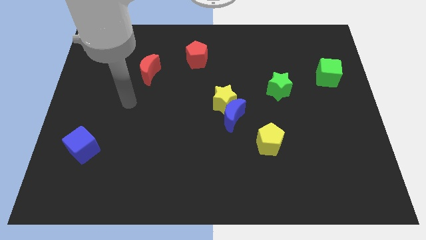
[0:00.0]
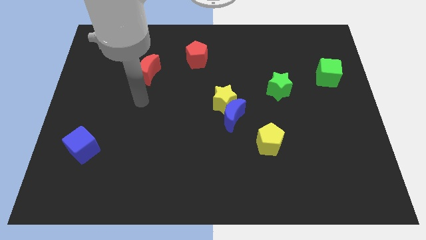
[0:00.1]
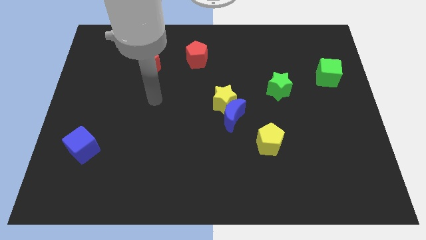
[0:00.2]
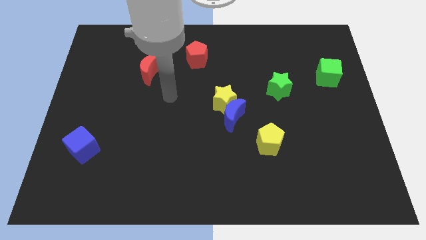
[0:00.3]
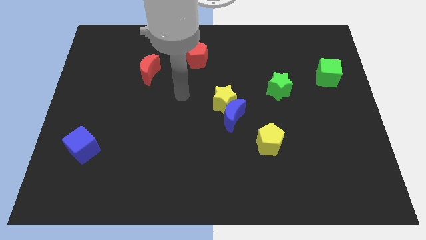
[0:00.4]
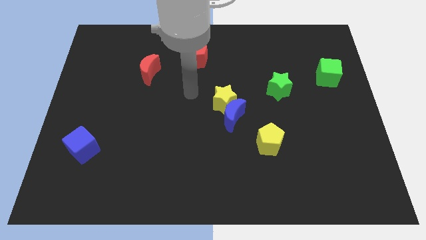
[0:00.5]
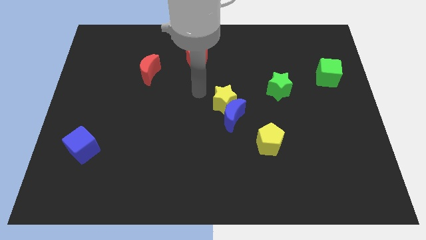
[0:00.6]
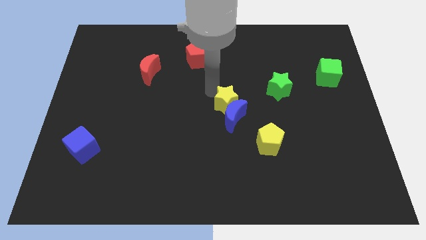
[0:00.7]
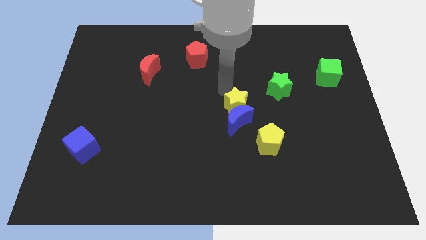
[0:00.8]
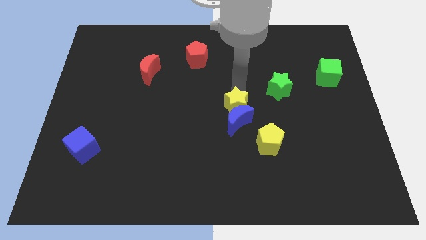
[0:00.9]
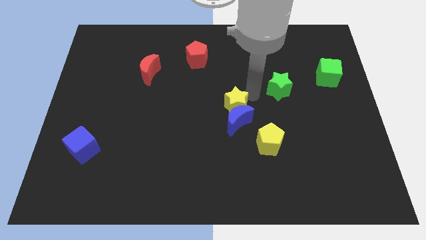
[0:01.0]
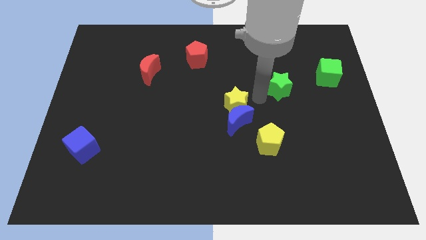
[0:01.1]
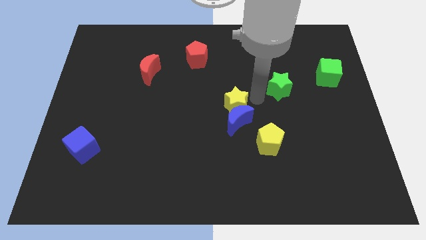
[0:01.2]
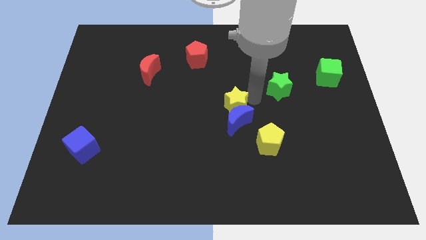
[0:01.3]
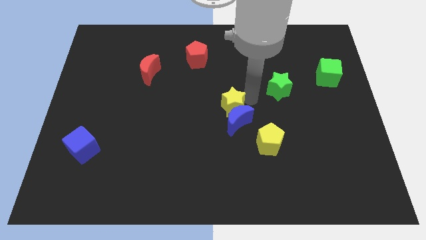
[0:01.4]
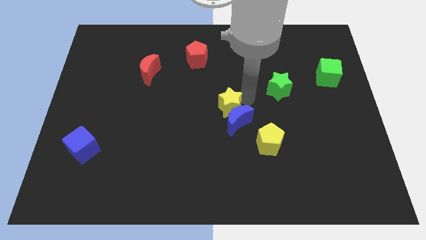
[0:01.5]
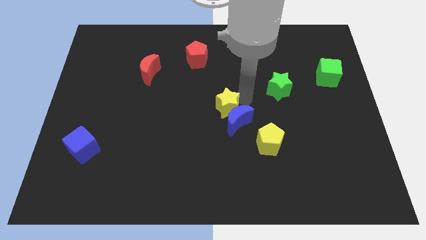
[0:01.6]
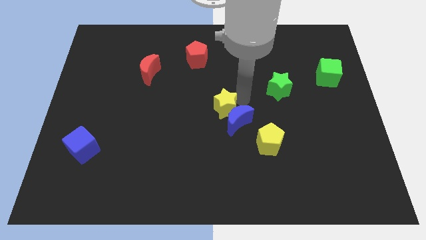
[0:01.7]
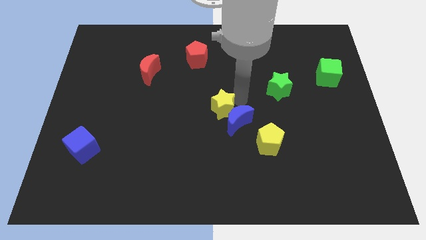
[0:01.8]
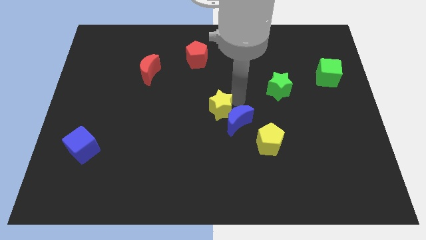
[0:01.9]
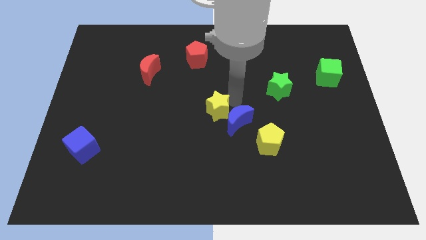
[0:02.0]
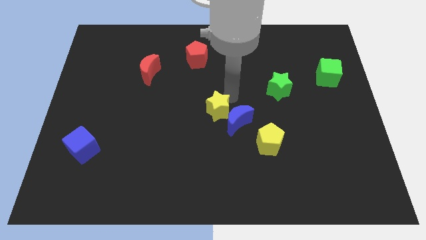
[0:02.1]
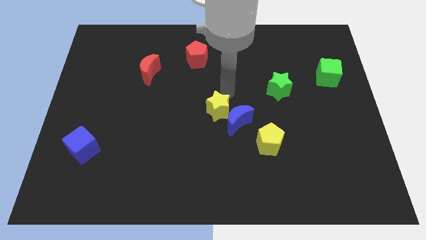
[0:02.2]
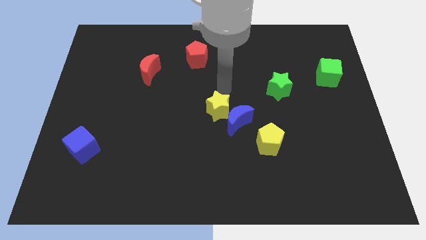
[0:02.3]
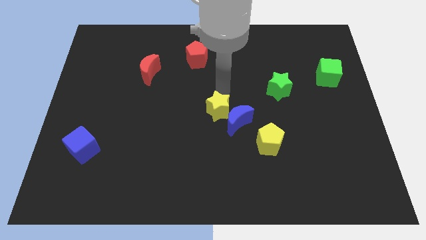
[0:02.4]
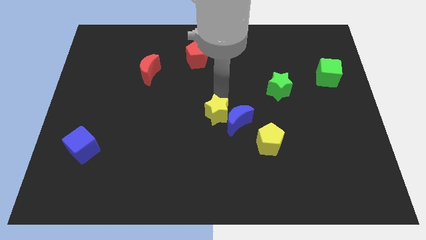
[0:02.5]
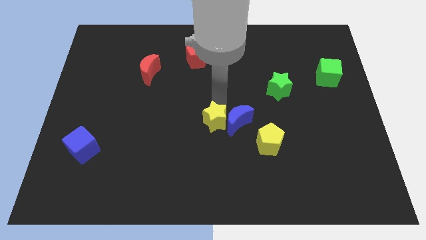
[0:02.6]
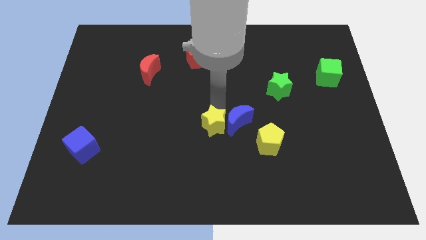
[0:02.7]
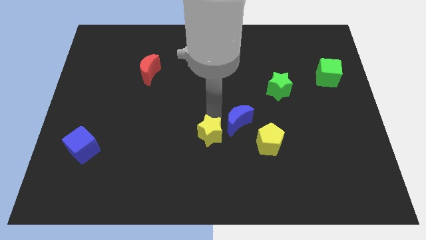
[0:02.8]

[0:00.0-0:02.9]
slightly slide the yellow star down

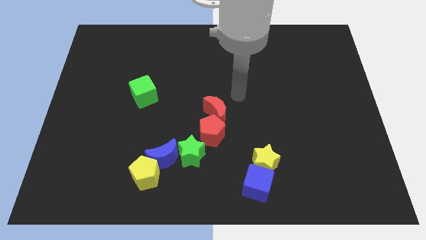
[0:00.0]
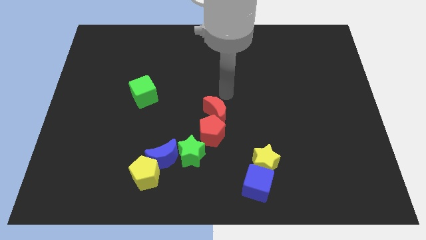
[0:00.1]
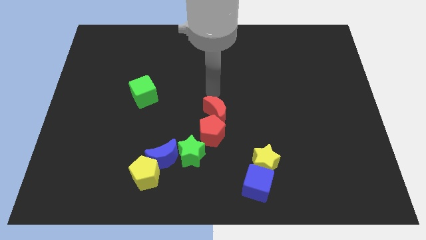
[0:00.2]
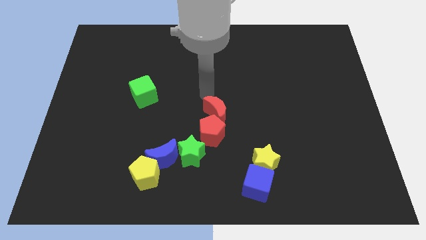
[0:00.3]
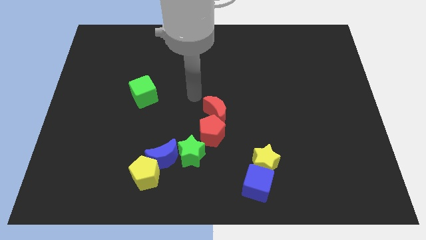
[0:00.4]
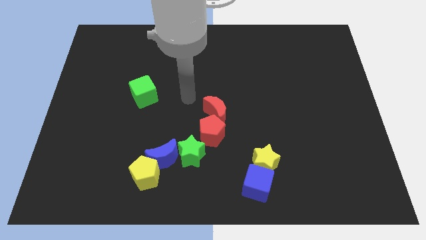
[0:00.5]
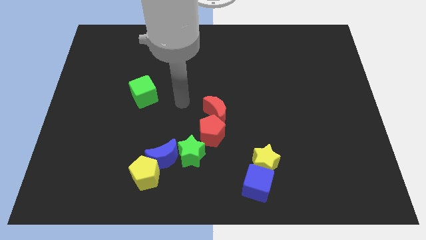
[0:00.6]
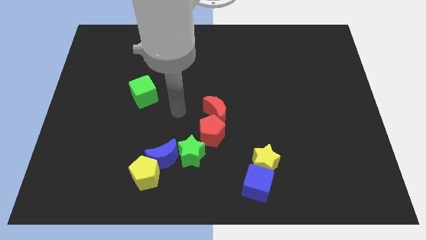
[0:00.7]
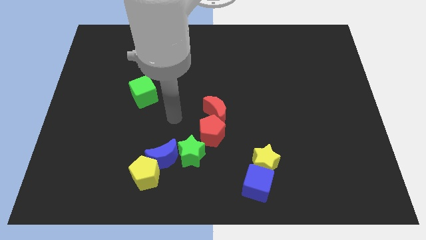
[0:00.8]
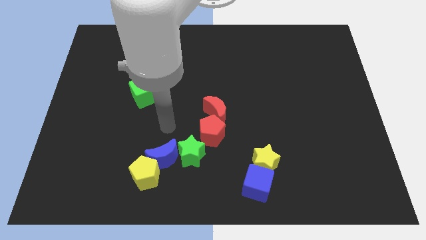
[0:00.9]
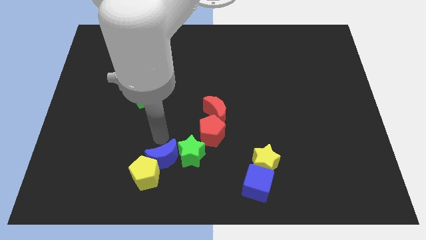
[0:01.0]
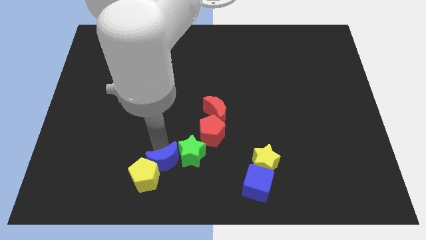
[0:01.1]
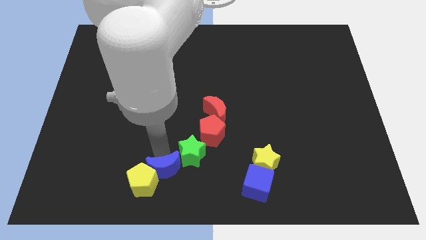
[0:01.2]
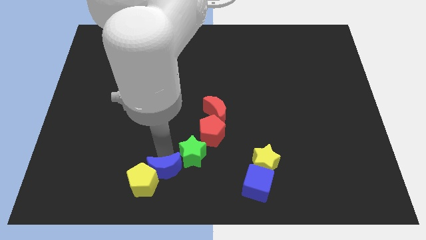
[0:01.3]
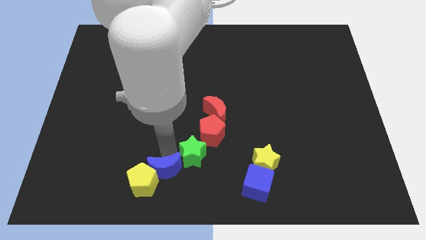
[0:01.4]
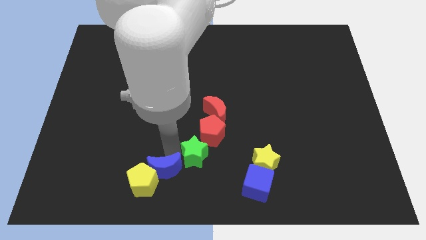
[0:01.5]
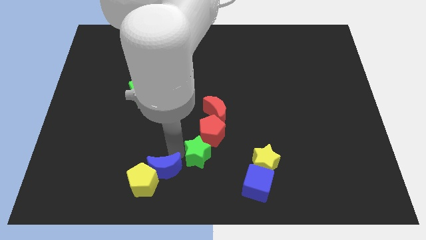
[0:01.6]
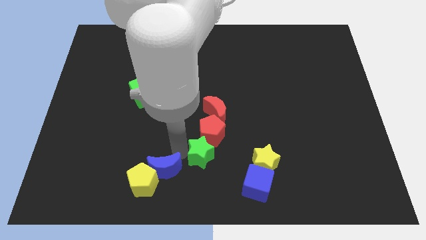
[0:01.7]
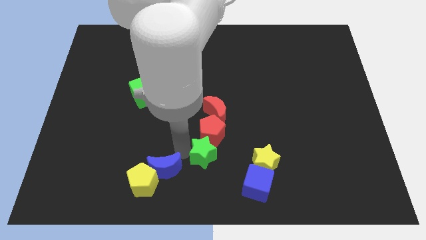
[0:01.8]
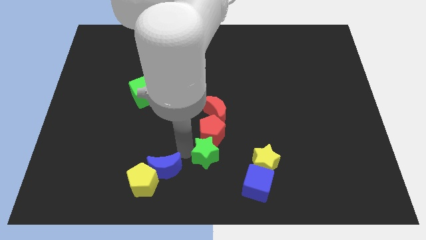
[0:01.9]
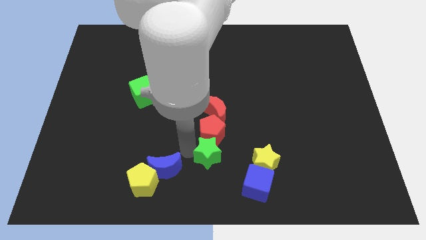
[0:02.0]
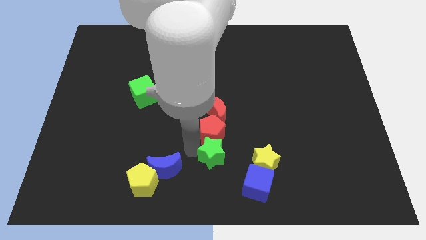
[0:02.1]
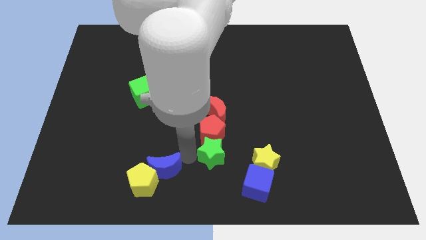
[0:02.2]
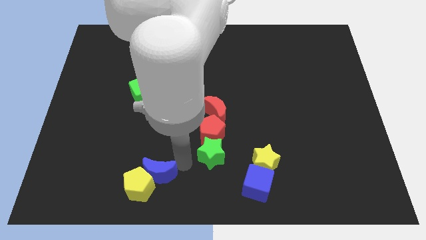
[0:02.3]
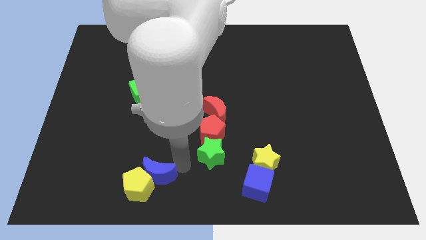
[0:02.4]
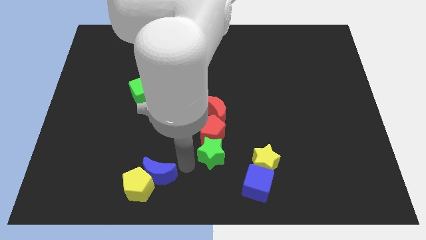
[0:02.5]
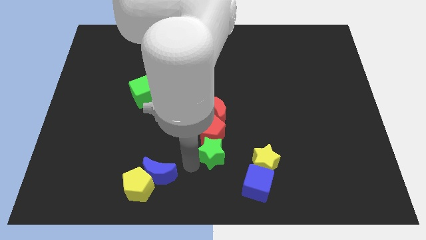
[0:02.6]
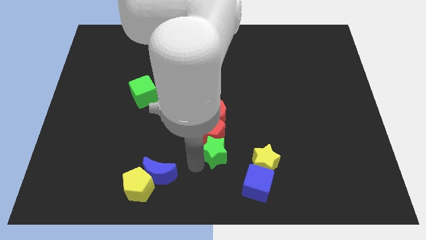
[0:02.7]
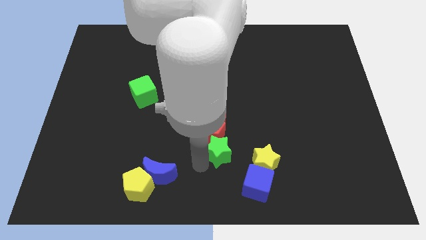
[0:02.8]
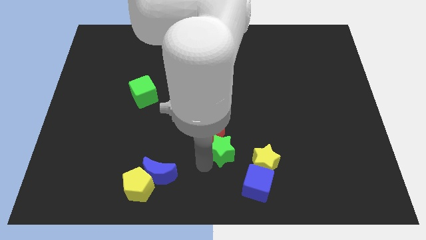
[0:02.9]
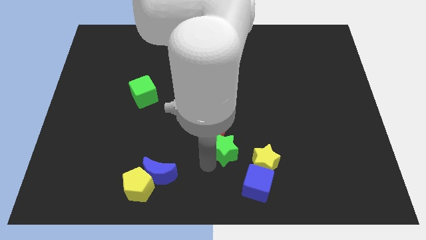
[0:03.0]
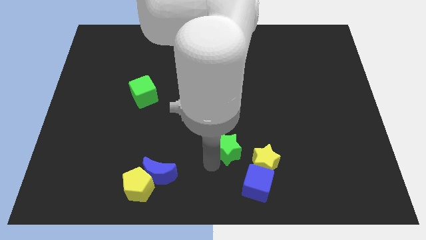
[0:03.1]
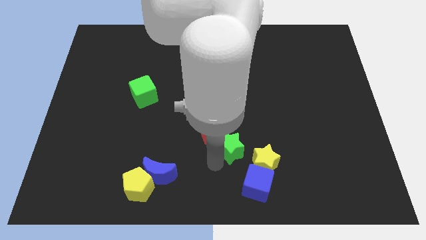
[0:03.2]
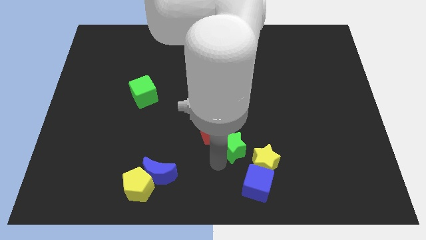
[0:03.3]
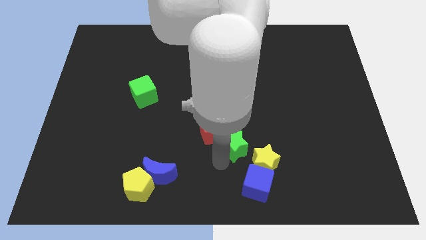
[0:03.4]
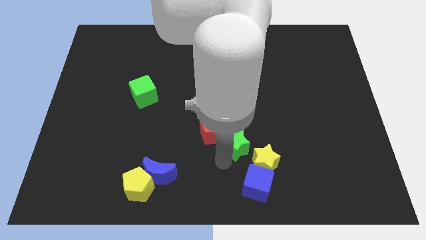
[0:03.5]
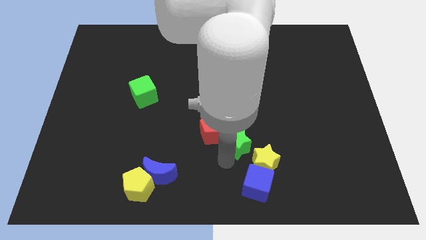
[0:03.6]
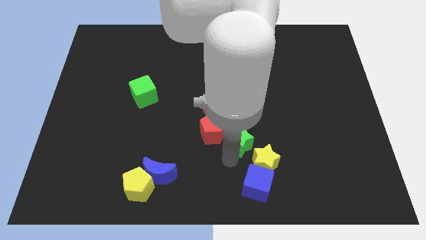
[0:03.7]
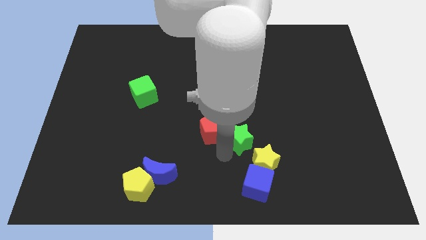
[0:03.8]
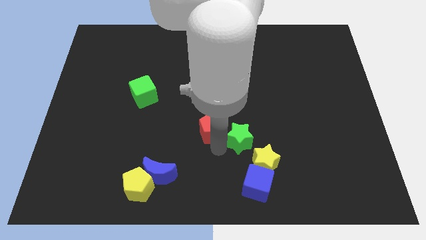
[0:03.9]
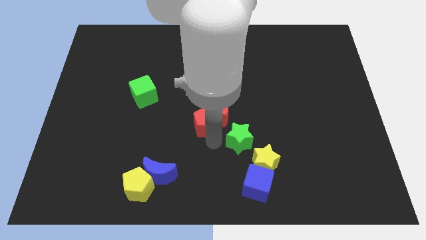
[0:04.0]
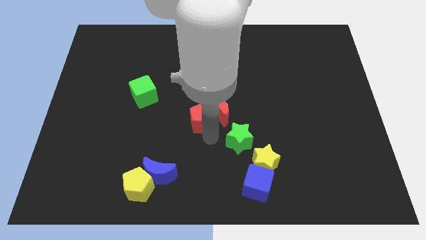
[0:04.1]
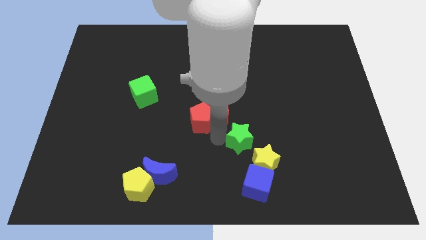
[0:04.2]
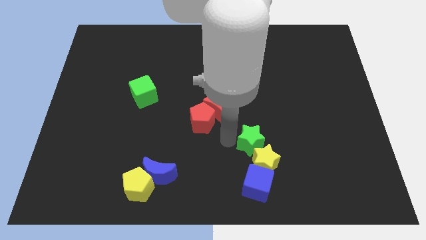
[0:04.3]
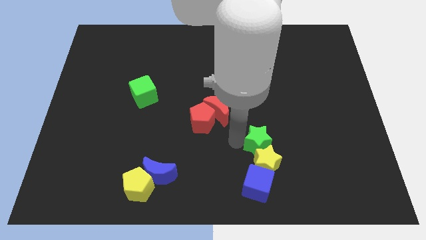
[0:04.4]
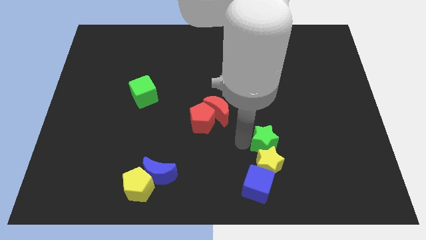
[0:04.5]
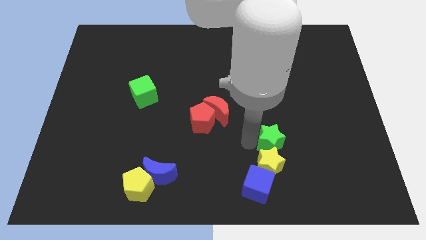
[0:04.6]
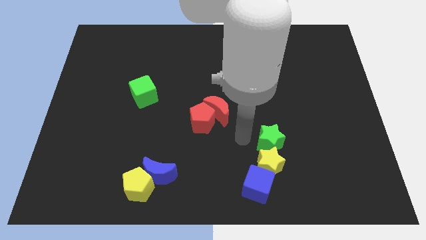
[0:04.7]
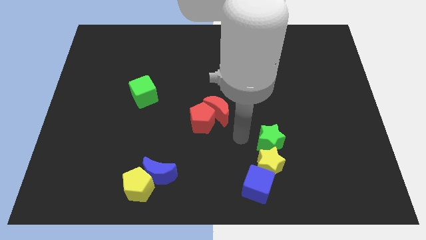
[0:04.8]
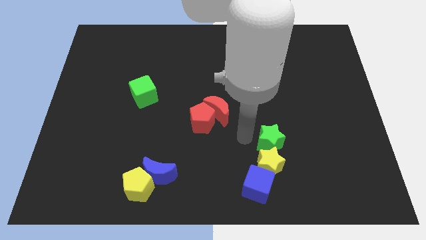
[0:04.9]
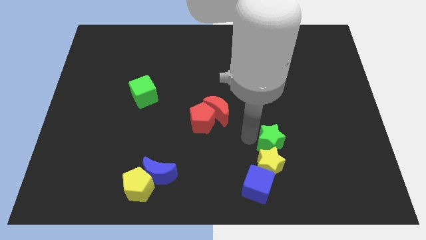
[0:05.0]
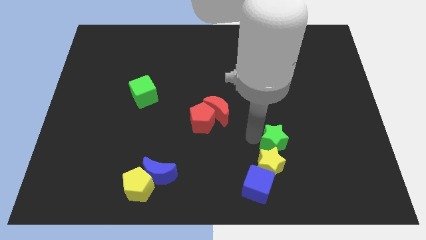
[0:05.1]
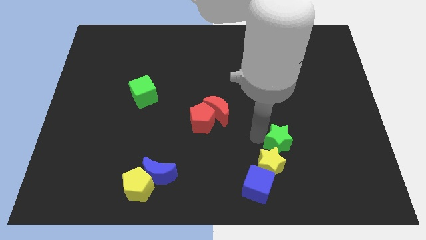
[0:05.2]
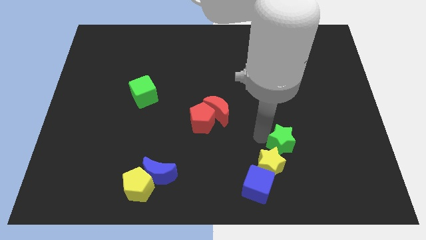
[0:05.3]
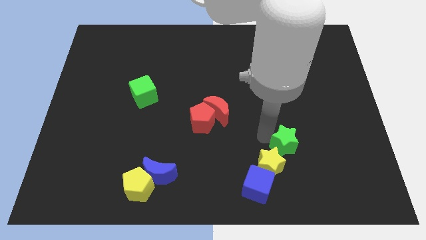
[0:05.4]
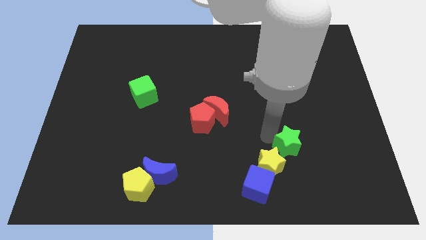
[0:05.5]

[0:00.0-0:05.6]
push the green star to the right
